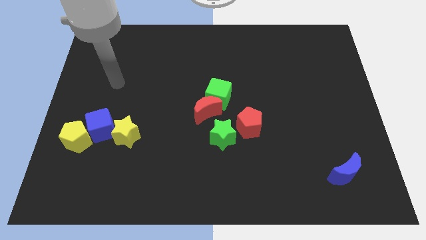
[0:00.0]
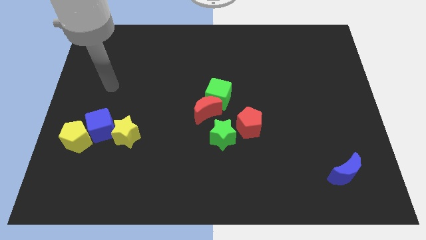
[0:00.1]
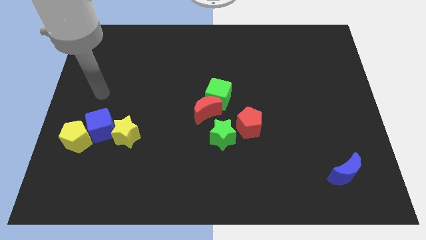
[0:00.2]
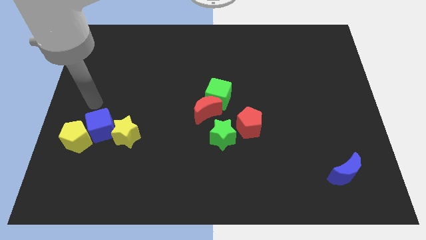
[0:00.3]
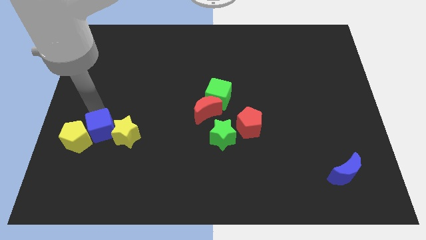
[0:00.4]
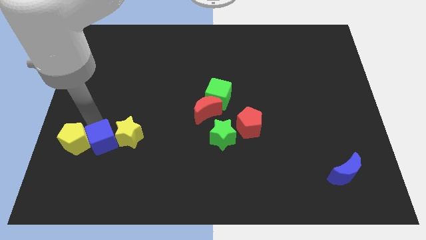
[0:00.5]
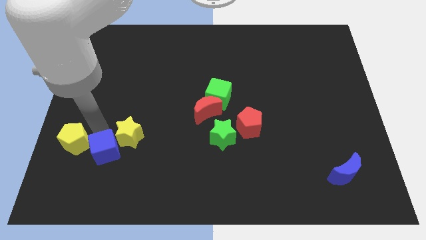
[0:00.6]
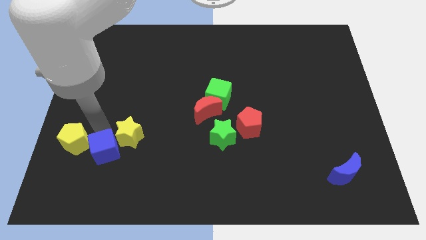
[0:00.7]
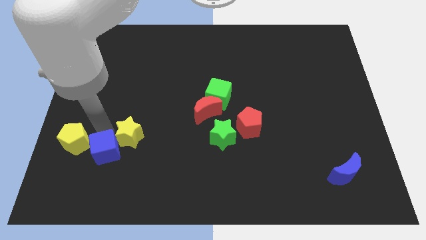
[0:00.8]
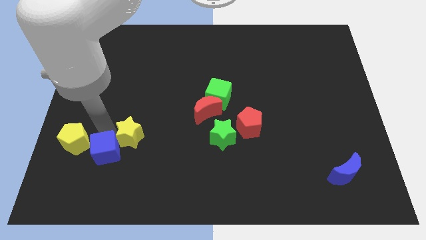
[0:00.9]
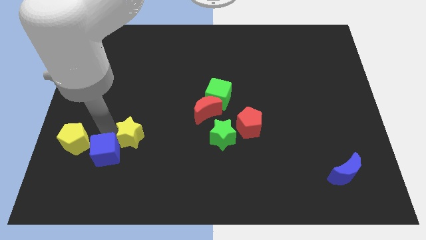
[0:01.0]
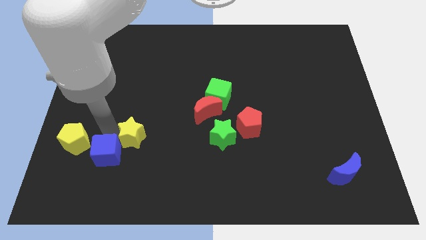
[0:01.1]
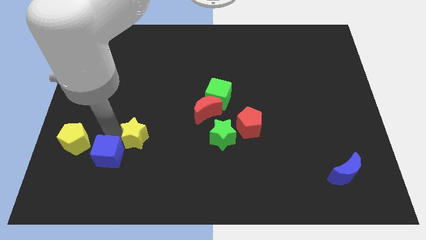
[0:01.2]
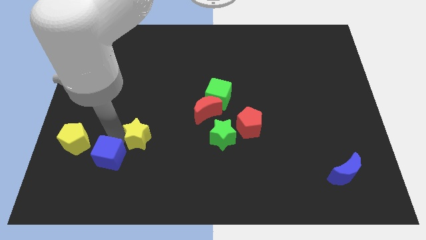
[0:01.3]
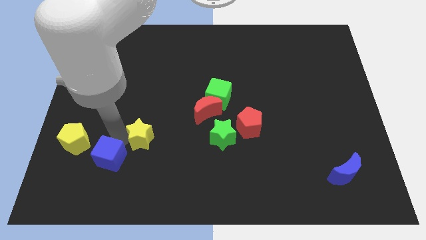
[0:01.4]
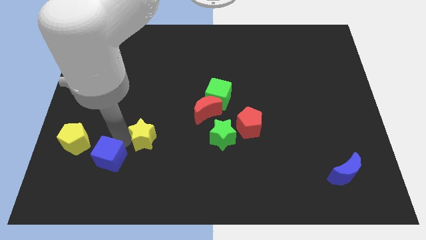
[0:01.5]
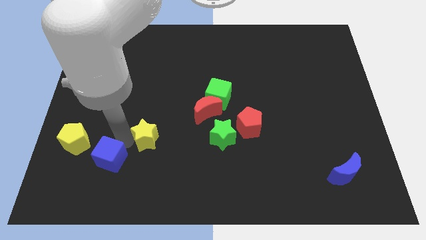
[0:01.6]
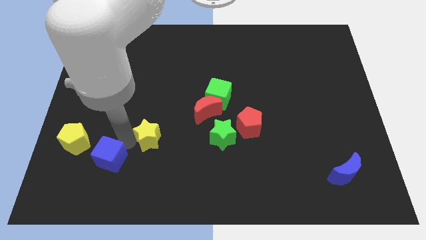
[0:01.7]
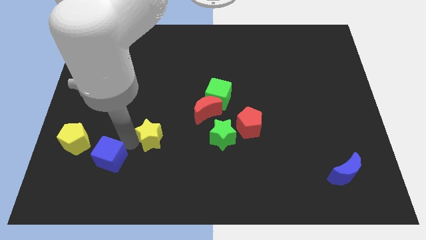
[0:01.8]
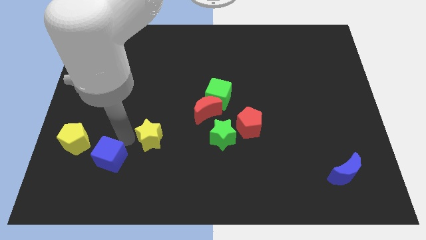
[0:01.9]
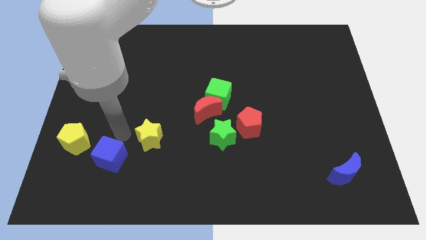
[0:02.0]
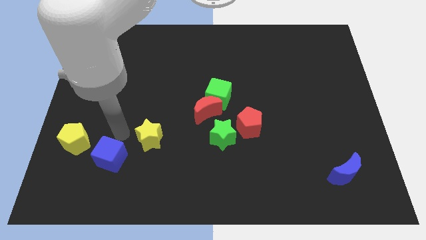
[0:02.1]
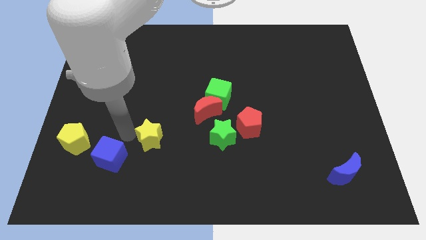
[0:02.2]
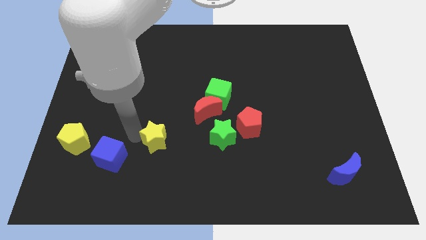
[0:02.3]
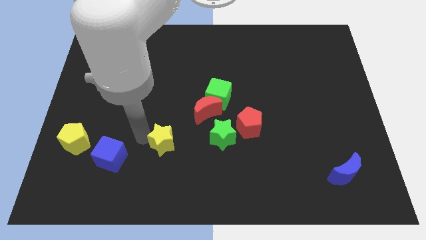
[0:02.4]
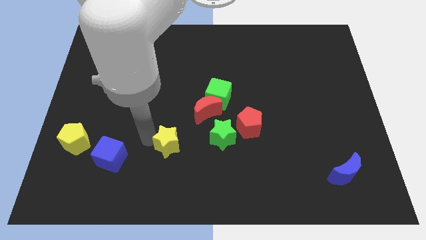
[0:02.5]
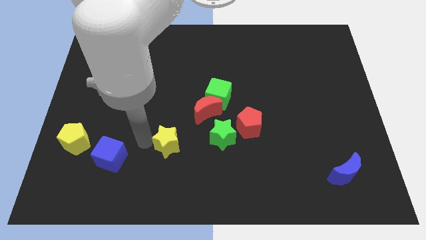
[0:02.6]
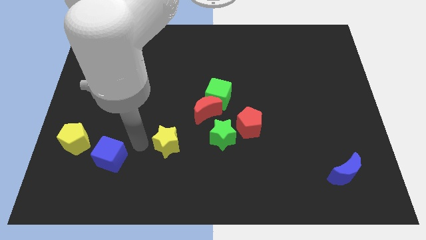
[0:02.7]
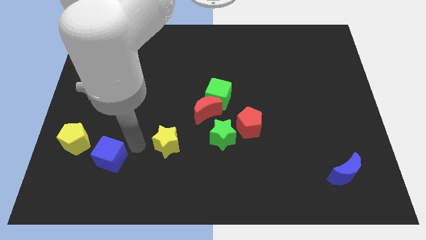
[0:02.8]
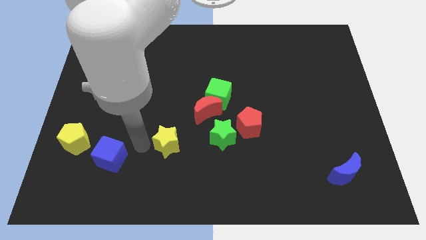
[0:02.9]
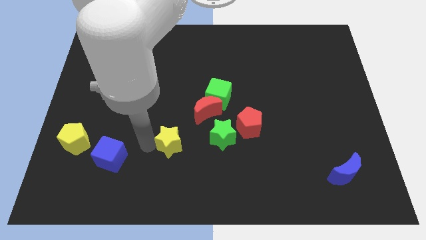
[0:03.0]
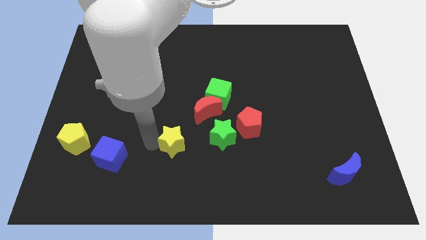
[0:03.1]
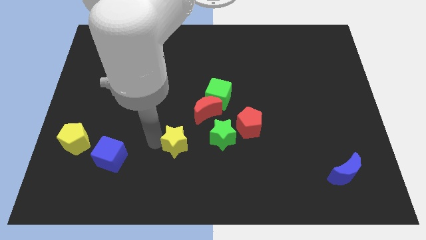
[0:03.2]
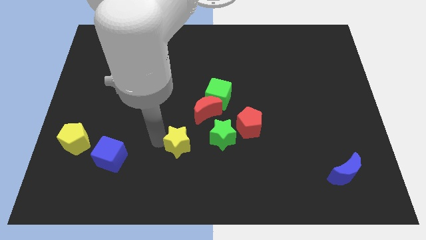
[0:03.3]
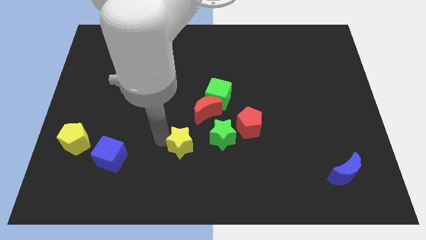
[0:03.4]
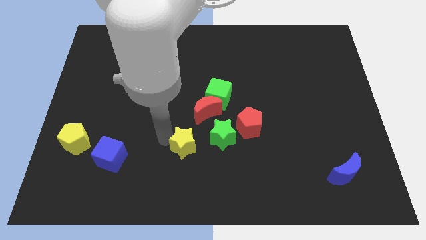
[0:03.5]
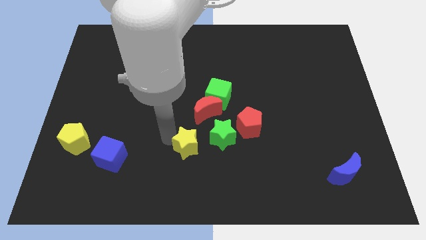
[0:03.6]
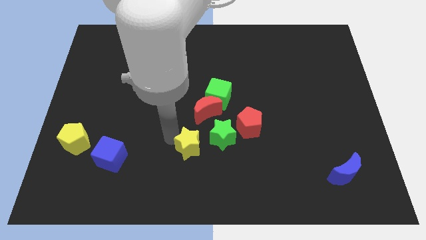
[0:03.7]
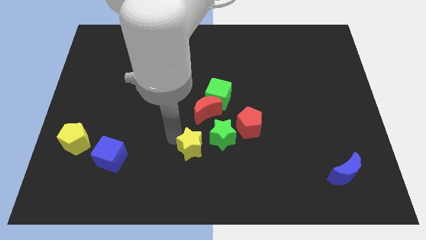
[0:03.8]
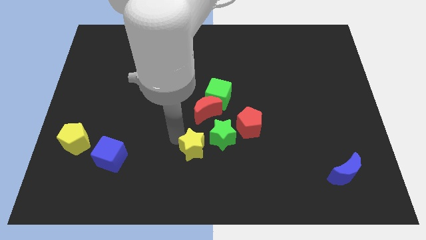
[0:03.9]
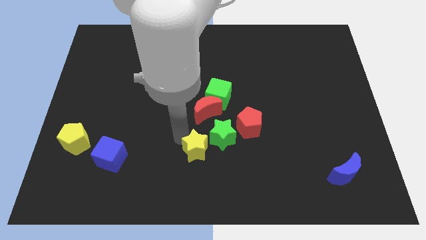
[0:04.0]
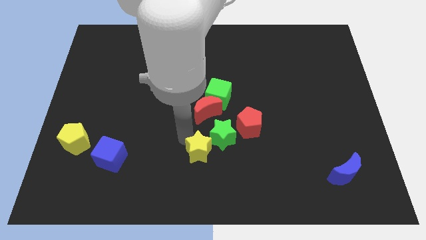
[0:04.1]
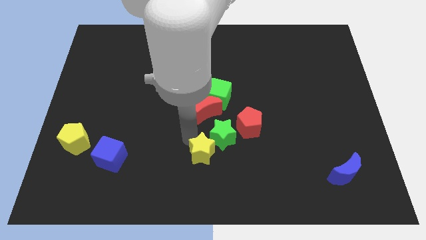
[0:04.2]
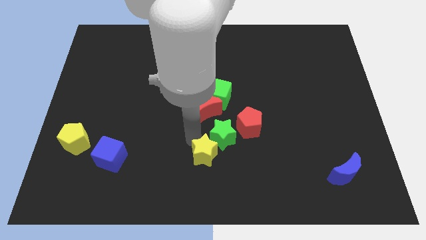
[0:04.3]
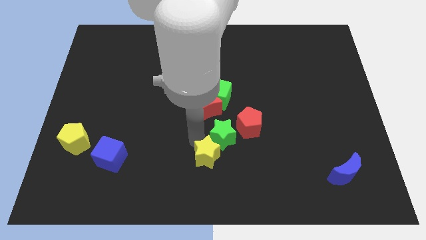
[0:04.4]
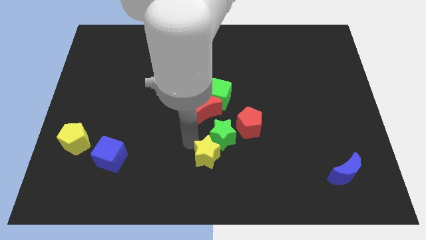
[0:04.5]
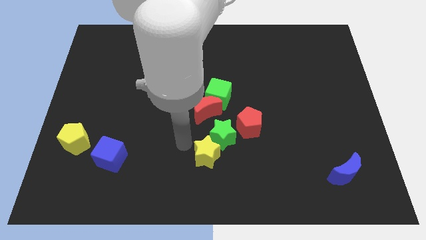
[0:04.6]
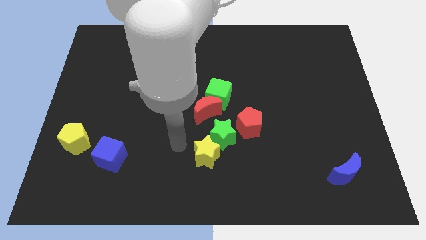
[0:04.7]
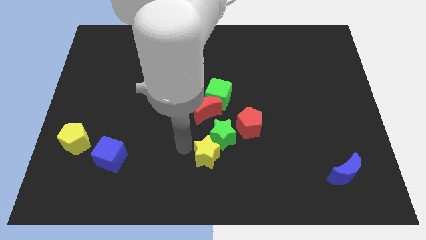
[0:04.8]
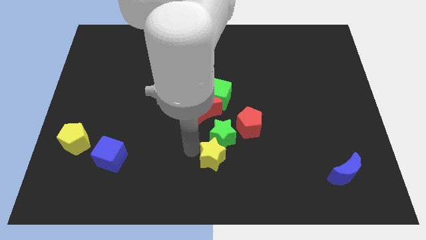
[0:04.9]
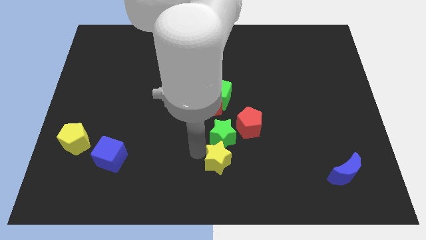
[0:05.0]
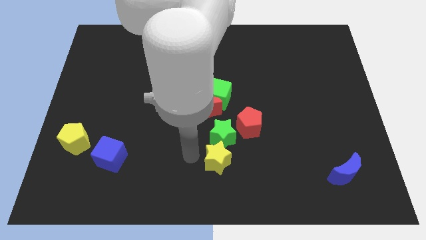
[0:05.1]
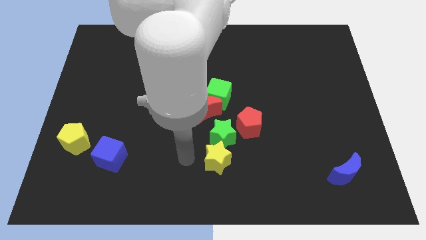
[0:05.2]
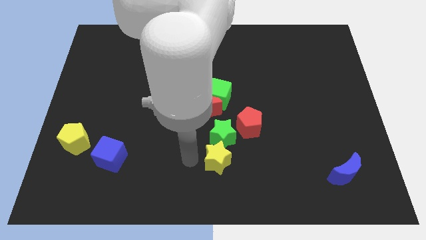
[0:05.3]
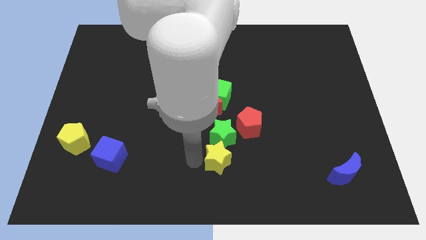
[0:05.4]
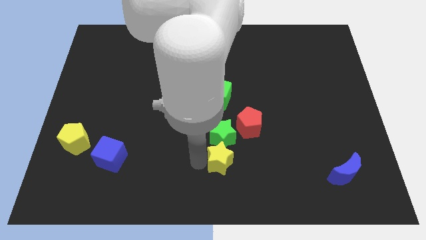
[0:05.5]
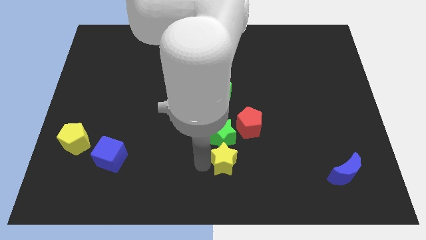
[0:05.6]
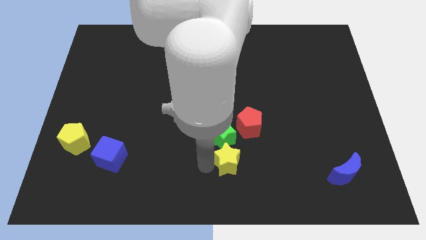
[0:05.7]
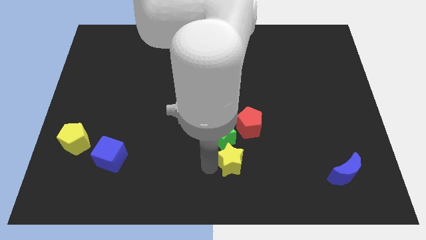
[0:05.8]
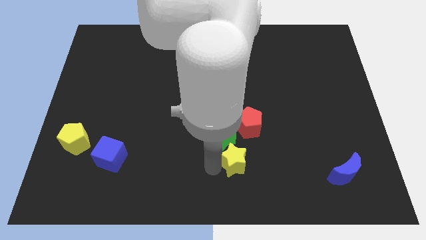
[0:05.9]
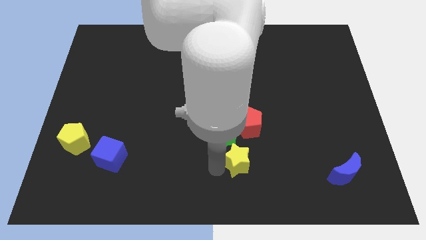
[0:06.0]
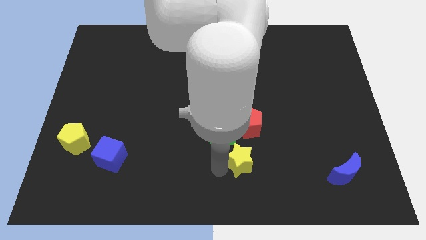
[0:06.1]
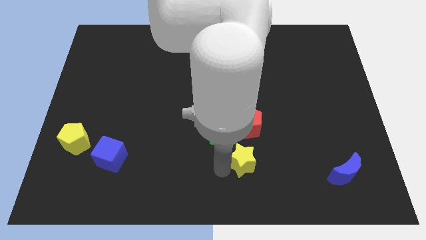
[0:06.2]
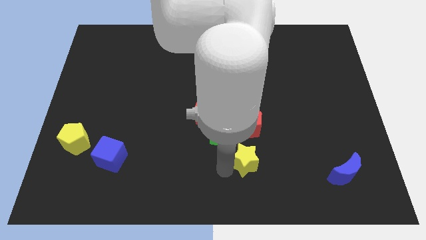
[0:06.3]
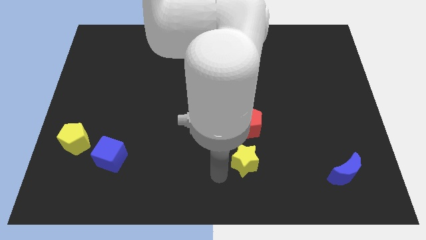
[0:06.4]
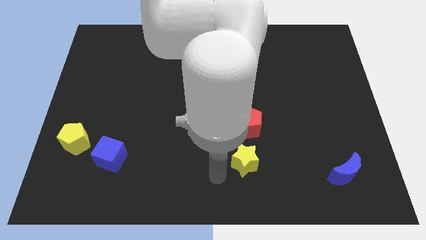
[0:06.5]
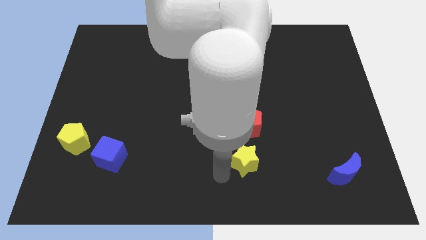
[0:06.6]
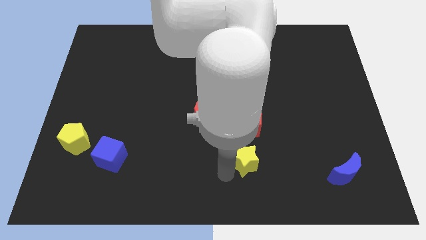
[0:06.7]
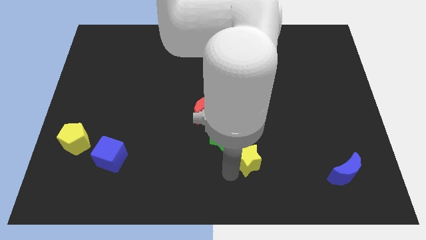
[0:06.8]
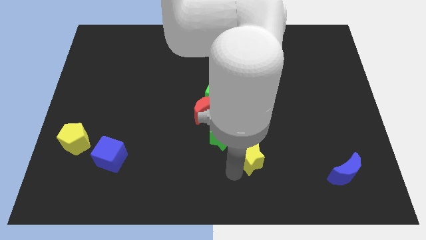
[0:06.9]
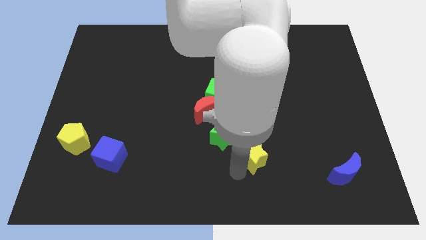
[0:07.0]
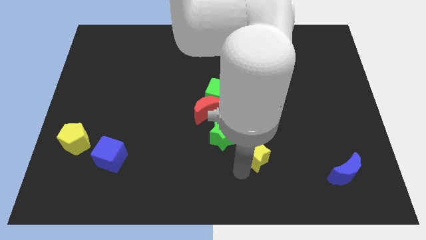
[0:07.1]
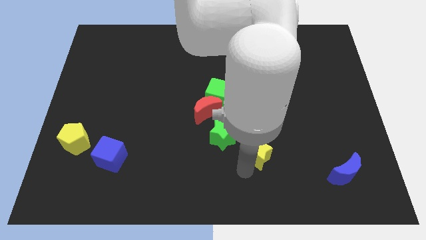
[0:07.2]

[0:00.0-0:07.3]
push the yellow star to the bottom right of the red pentagon
